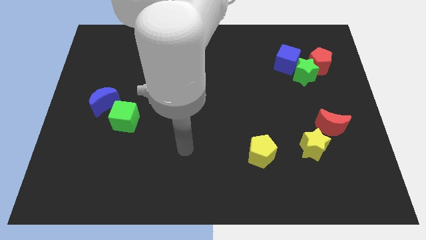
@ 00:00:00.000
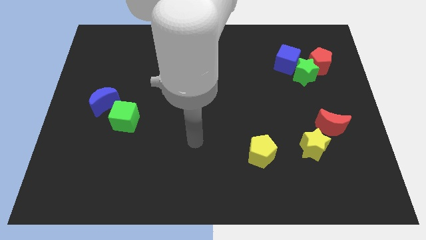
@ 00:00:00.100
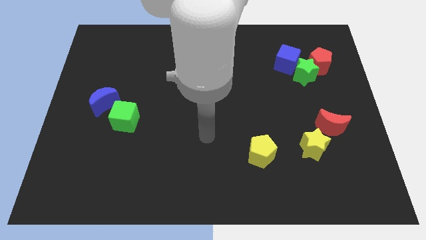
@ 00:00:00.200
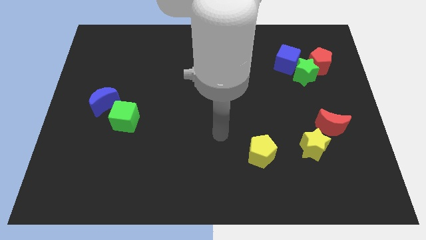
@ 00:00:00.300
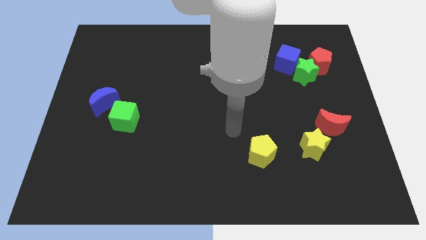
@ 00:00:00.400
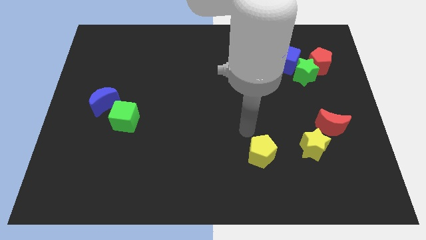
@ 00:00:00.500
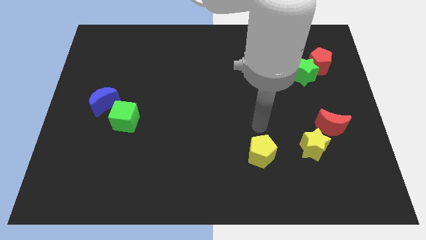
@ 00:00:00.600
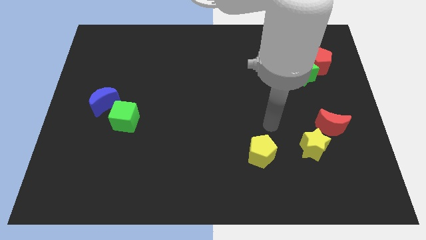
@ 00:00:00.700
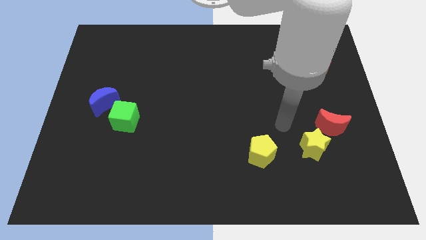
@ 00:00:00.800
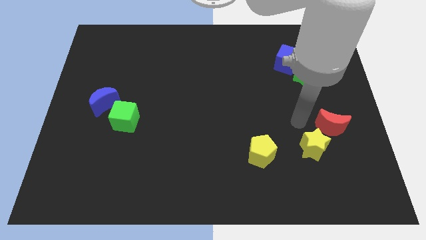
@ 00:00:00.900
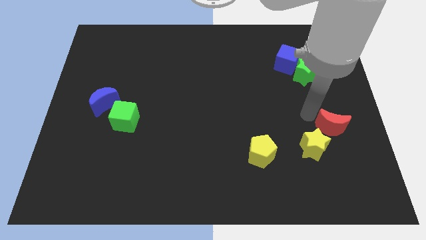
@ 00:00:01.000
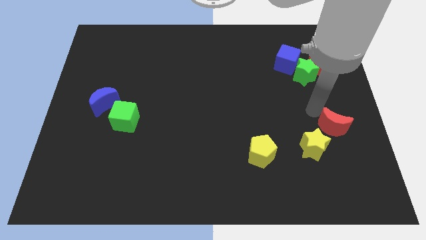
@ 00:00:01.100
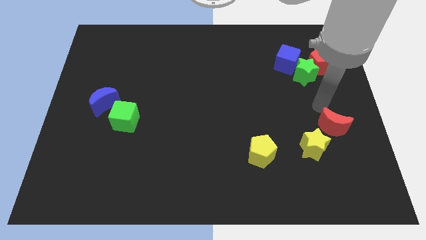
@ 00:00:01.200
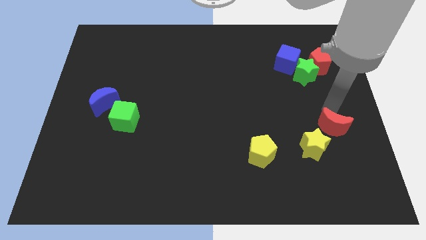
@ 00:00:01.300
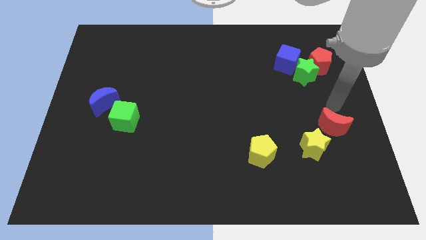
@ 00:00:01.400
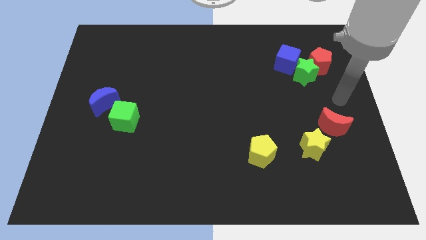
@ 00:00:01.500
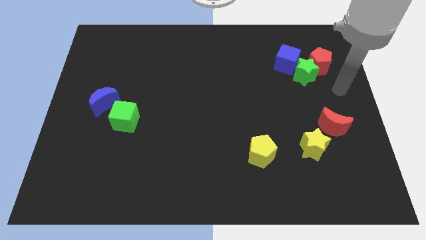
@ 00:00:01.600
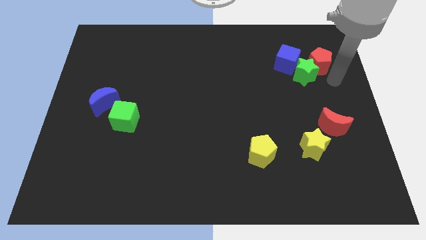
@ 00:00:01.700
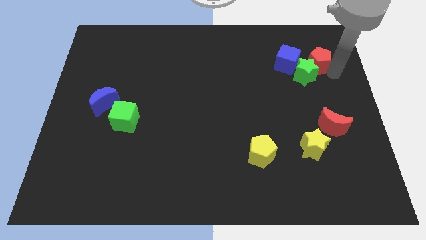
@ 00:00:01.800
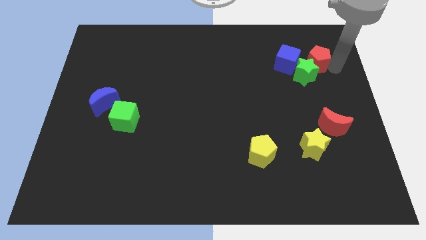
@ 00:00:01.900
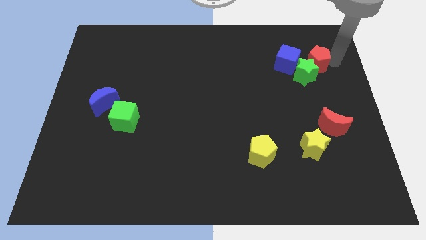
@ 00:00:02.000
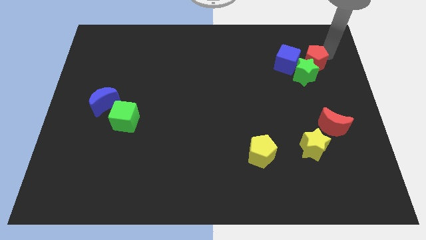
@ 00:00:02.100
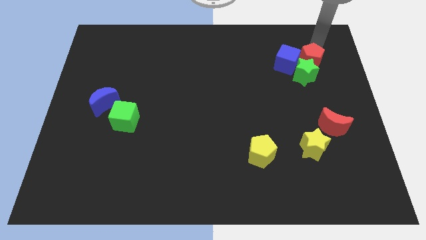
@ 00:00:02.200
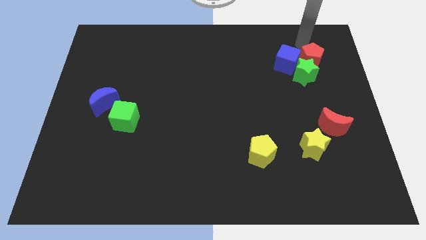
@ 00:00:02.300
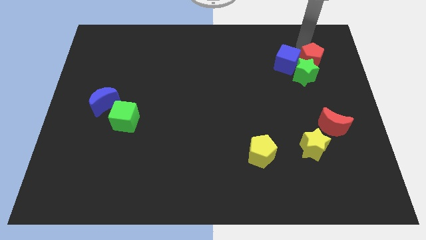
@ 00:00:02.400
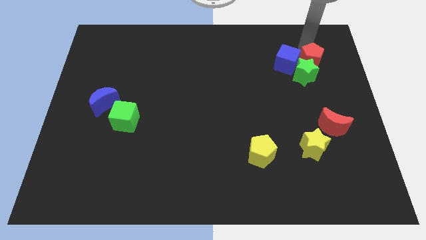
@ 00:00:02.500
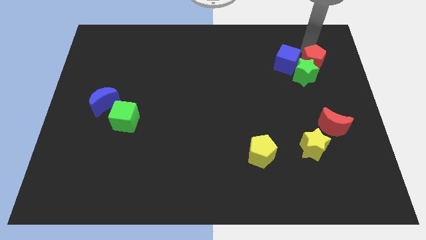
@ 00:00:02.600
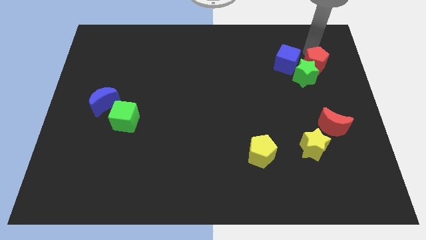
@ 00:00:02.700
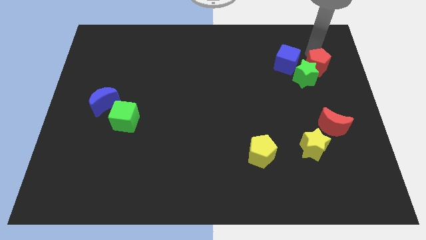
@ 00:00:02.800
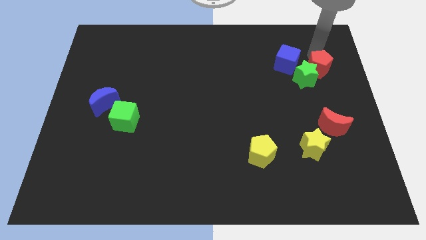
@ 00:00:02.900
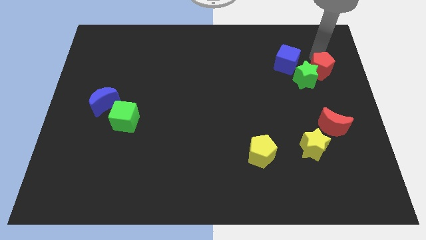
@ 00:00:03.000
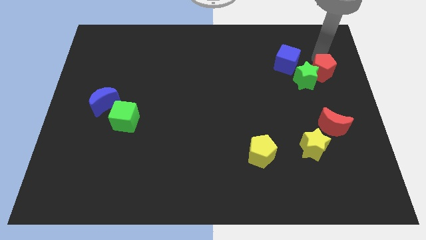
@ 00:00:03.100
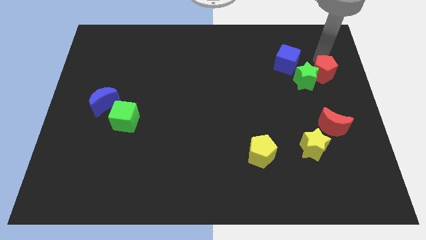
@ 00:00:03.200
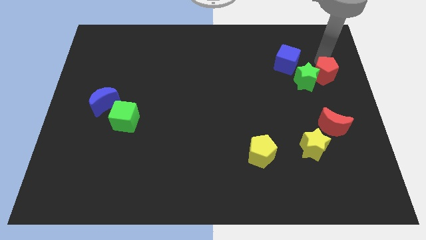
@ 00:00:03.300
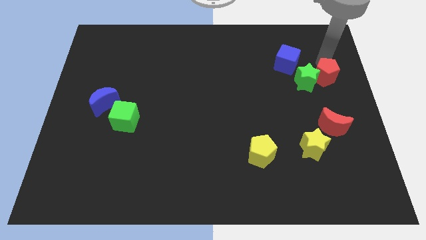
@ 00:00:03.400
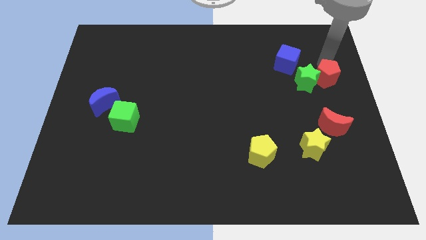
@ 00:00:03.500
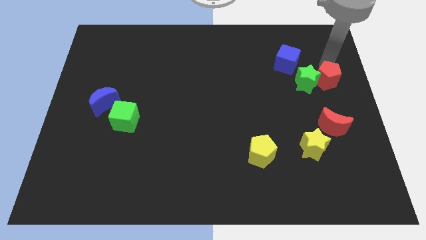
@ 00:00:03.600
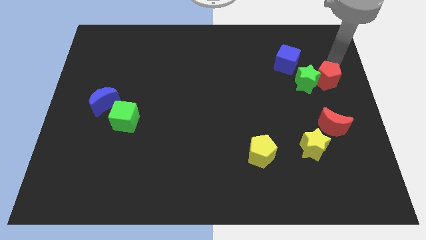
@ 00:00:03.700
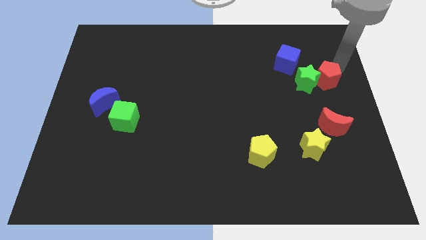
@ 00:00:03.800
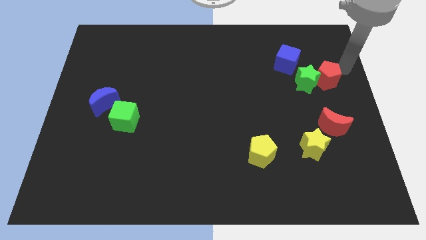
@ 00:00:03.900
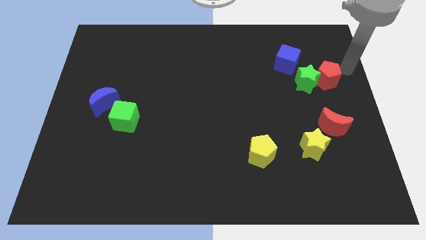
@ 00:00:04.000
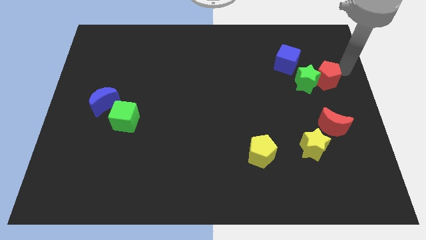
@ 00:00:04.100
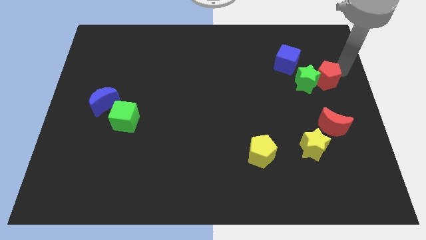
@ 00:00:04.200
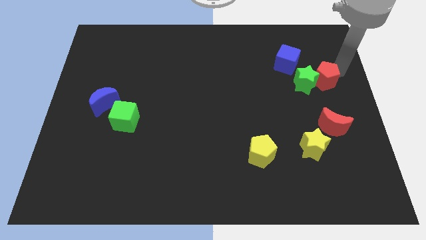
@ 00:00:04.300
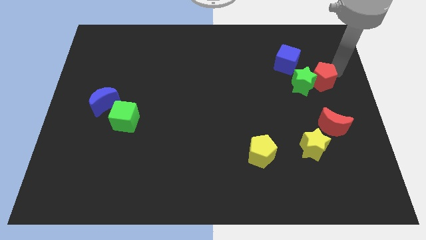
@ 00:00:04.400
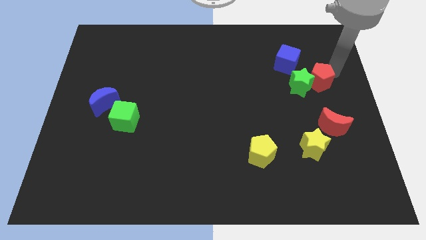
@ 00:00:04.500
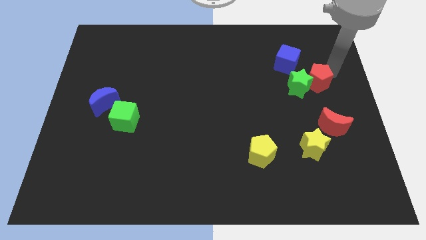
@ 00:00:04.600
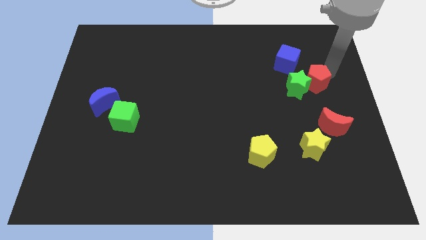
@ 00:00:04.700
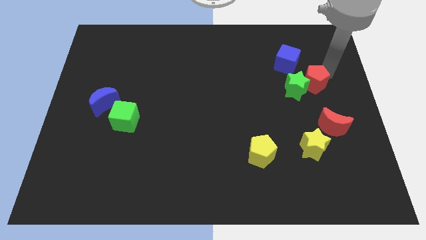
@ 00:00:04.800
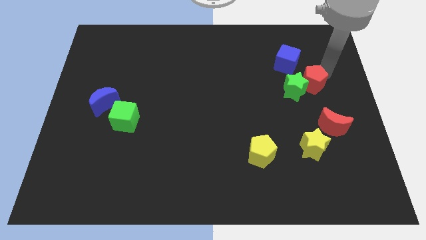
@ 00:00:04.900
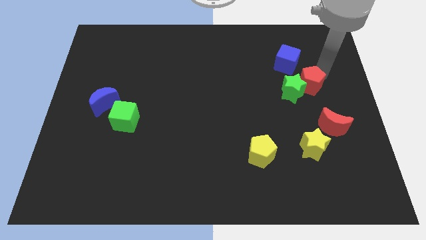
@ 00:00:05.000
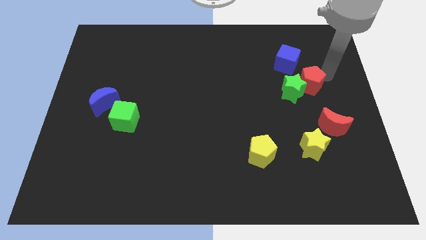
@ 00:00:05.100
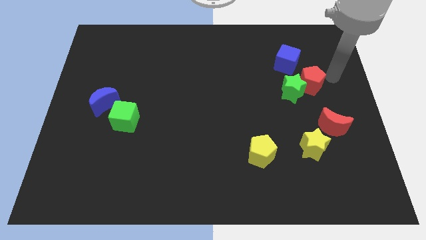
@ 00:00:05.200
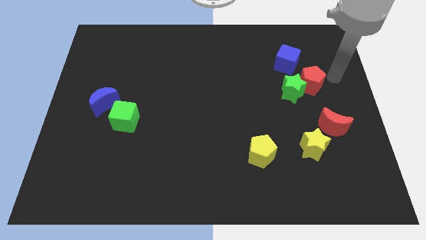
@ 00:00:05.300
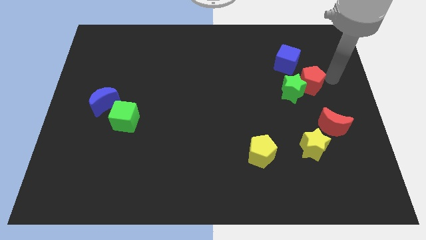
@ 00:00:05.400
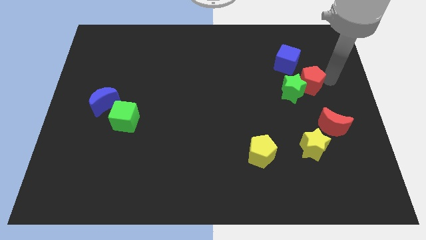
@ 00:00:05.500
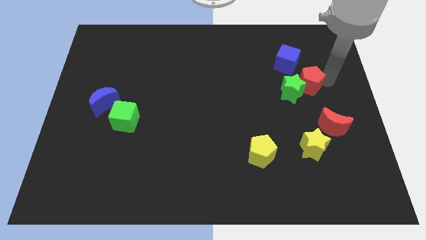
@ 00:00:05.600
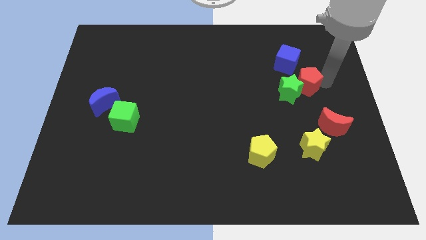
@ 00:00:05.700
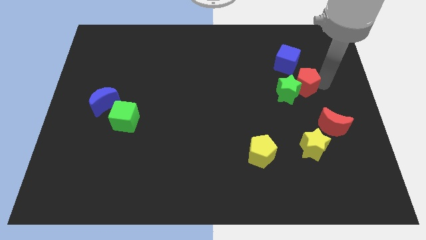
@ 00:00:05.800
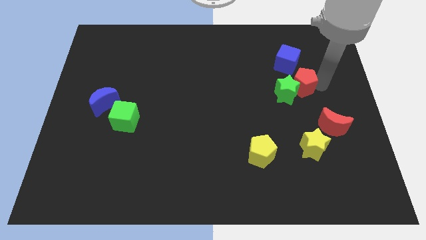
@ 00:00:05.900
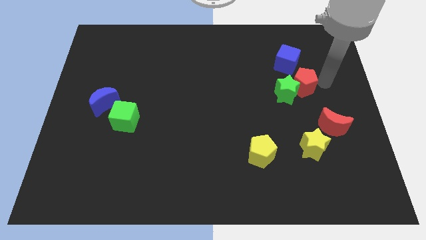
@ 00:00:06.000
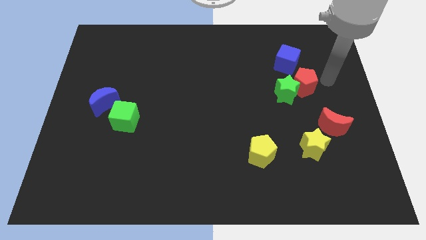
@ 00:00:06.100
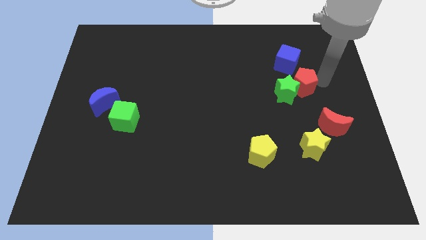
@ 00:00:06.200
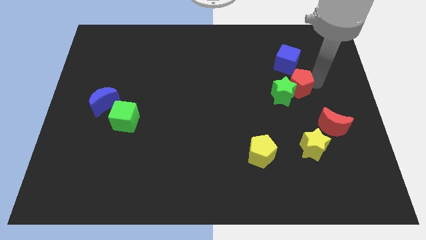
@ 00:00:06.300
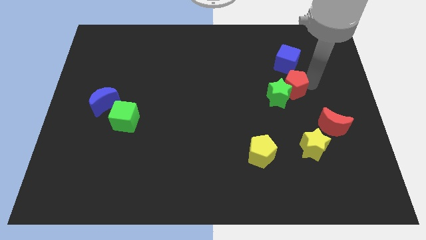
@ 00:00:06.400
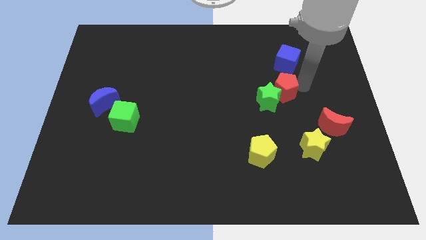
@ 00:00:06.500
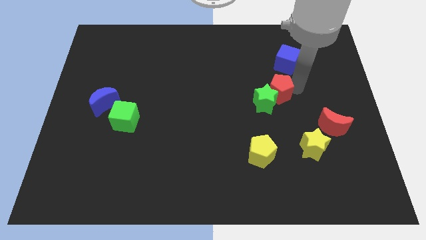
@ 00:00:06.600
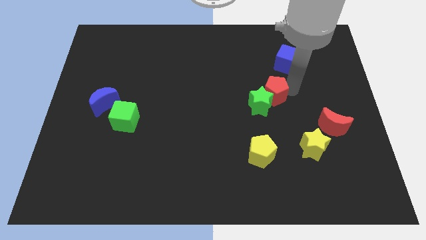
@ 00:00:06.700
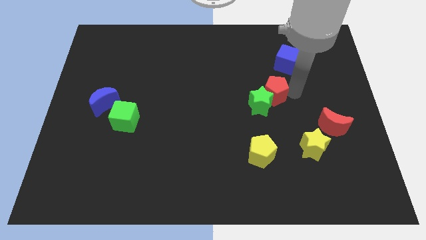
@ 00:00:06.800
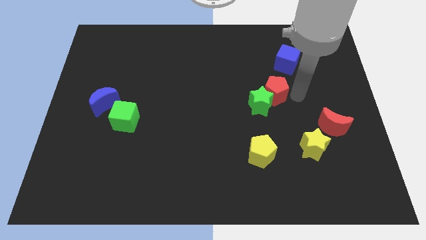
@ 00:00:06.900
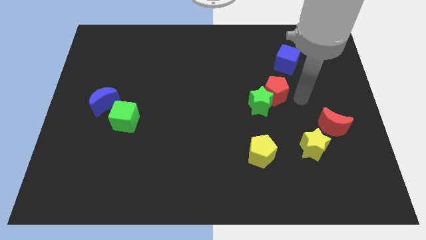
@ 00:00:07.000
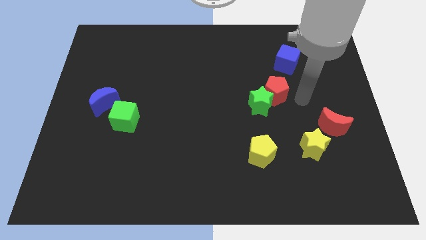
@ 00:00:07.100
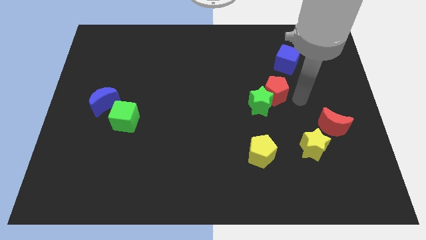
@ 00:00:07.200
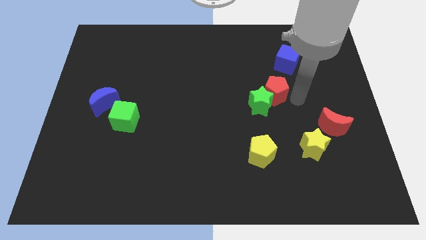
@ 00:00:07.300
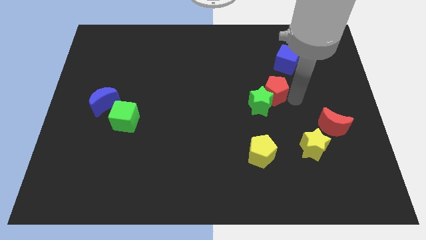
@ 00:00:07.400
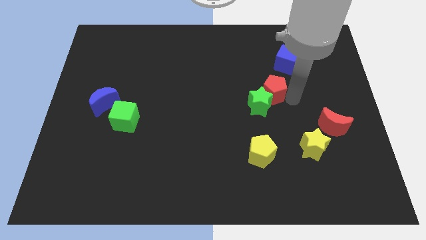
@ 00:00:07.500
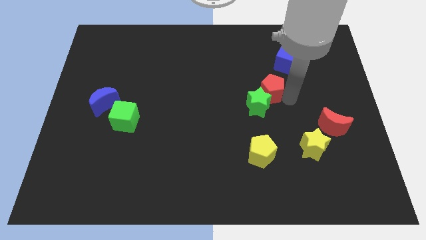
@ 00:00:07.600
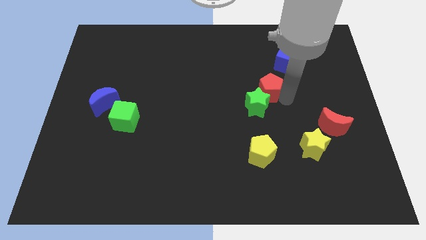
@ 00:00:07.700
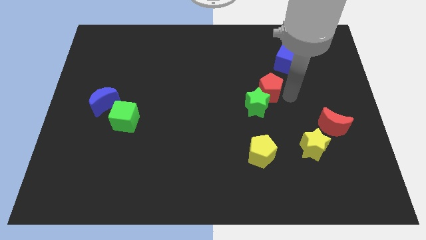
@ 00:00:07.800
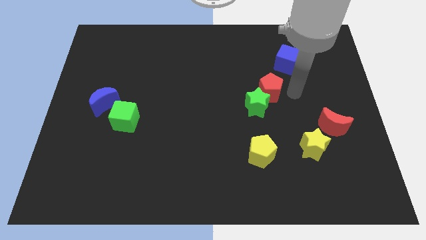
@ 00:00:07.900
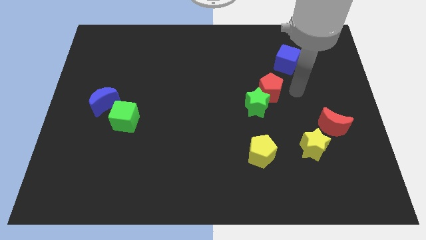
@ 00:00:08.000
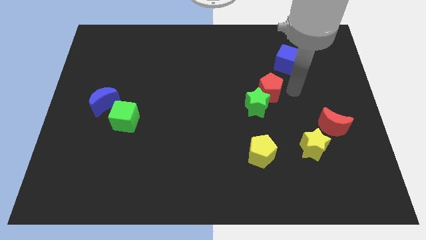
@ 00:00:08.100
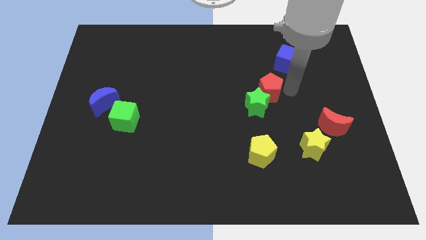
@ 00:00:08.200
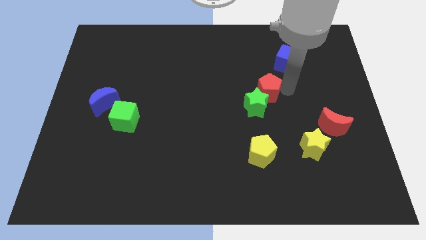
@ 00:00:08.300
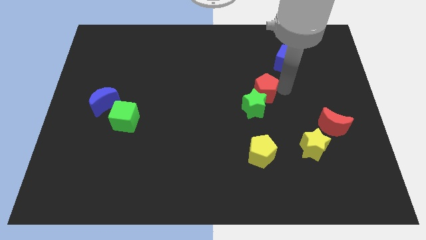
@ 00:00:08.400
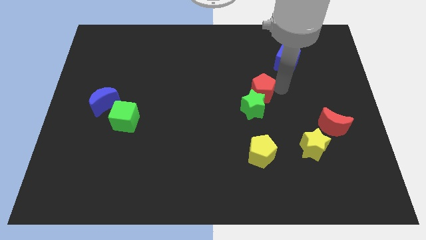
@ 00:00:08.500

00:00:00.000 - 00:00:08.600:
put the red pentagon to the center of the board
